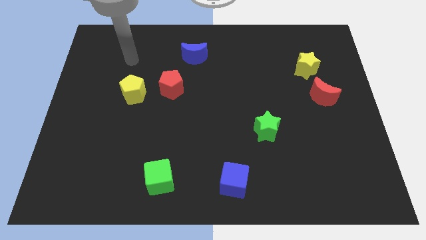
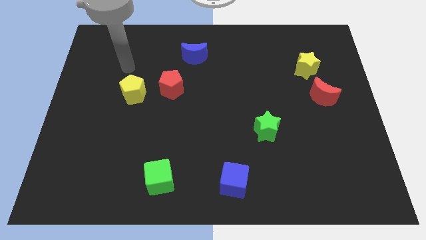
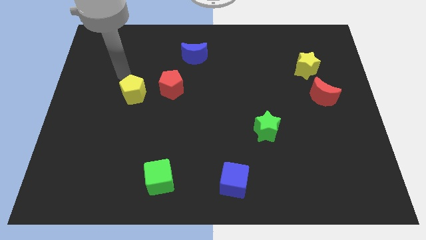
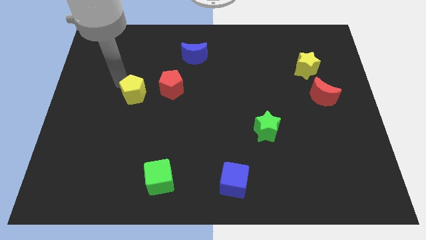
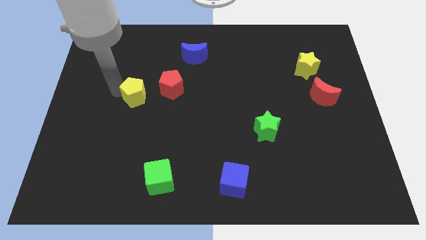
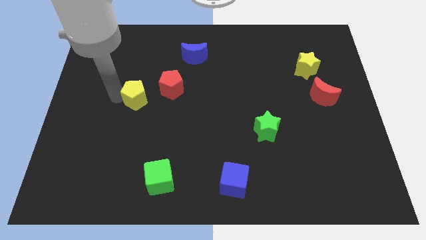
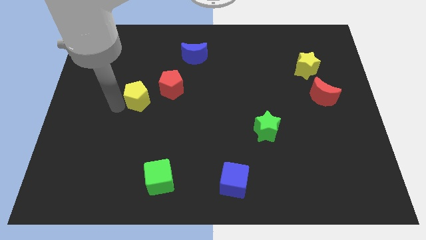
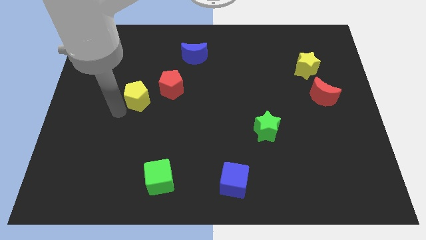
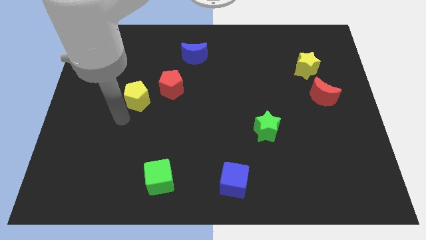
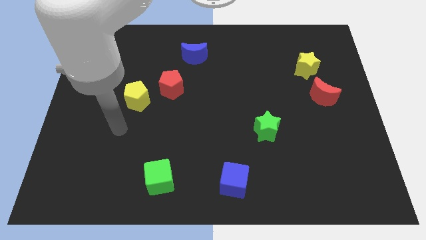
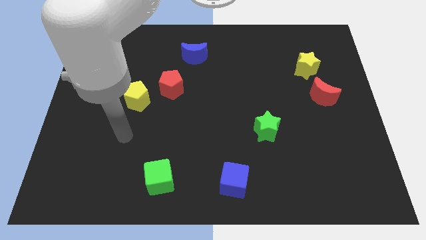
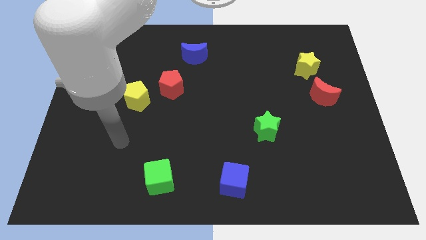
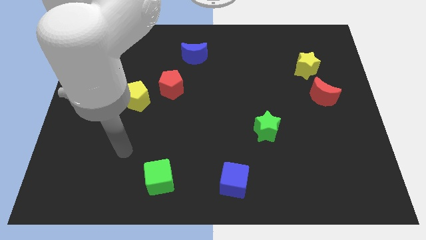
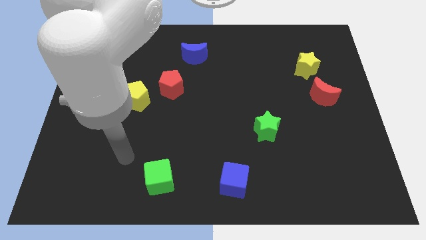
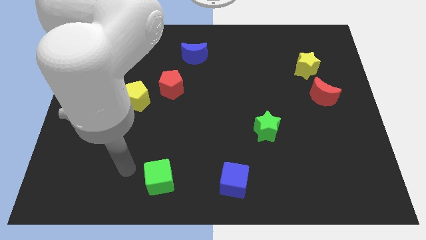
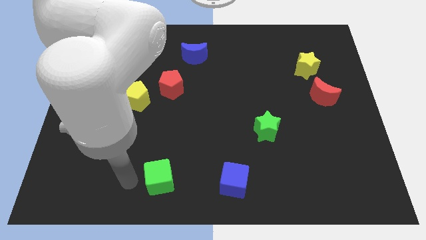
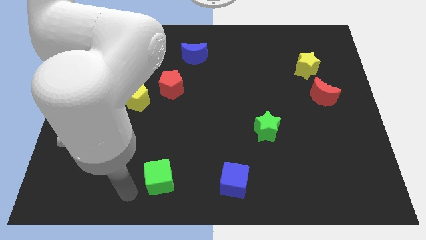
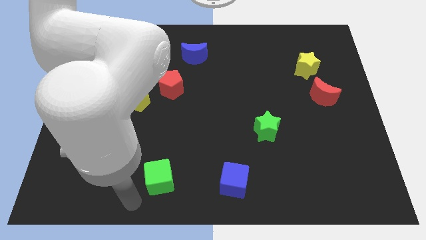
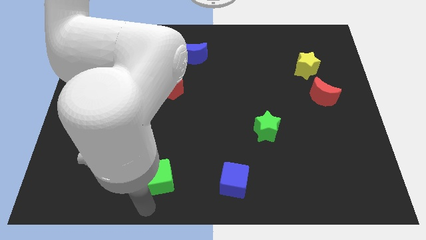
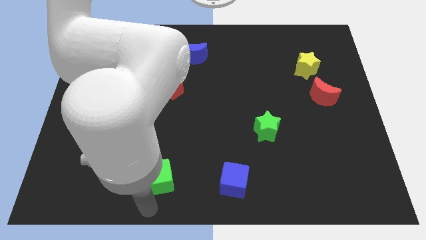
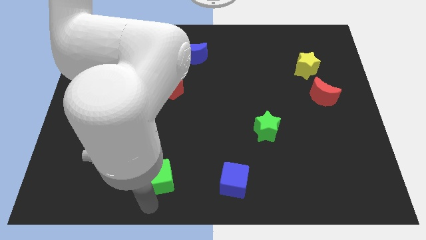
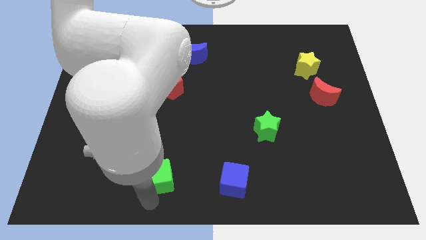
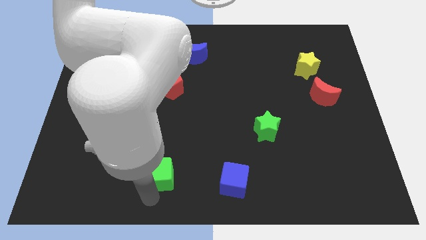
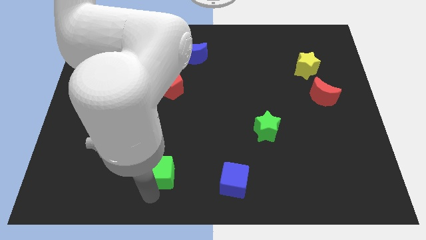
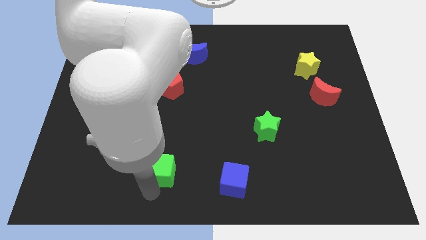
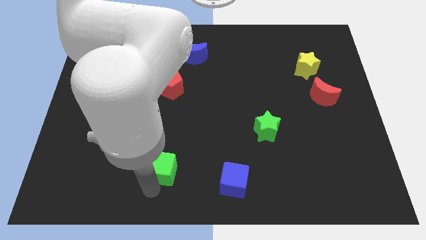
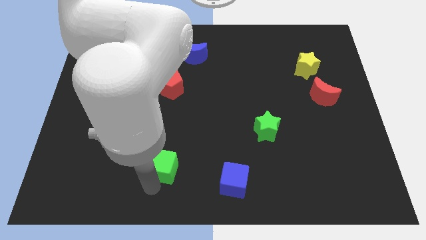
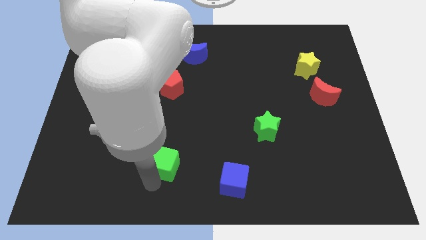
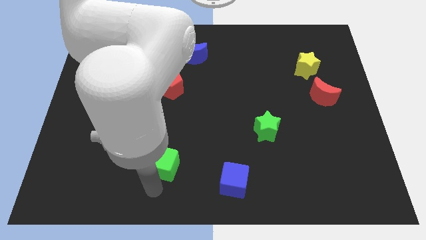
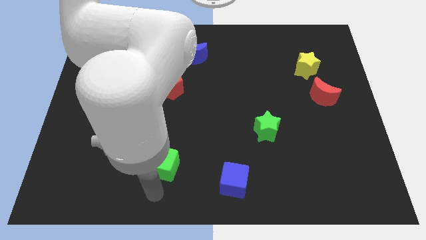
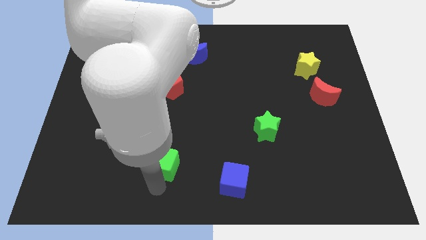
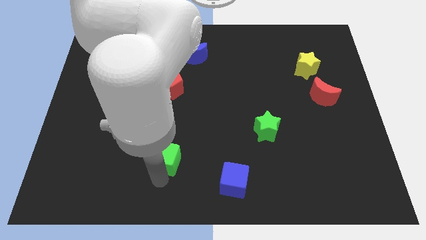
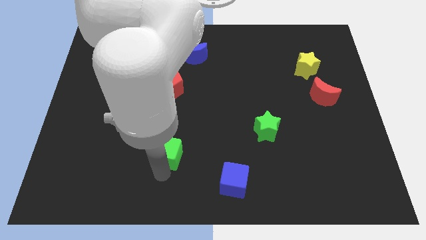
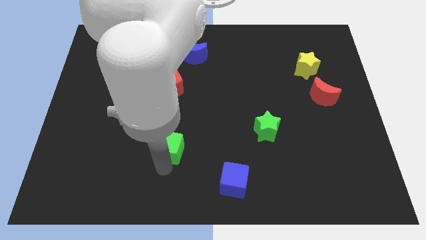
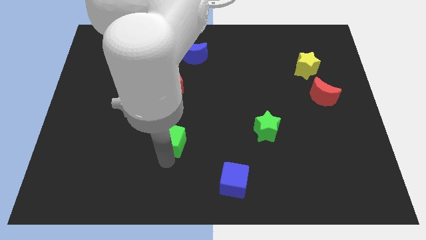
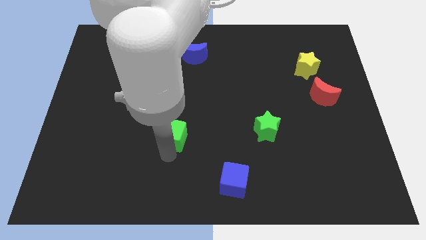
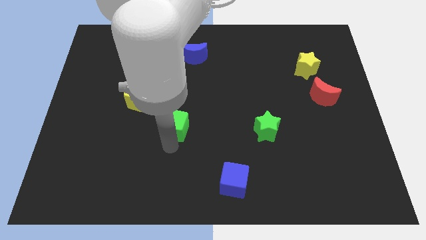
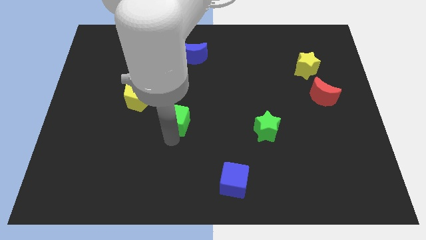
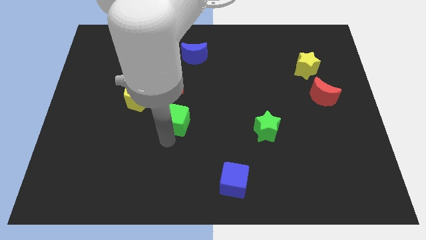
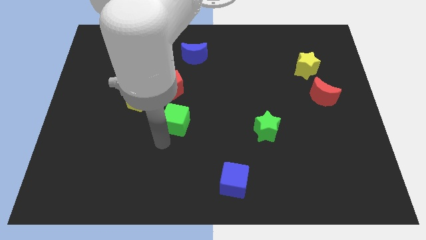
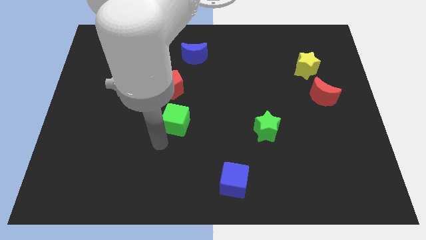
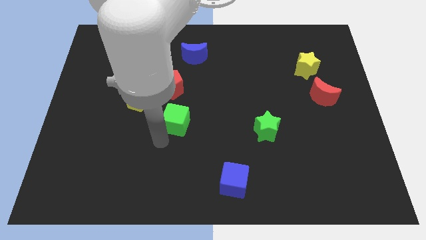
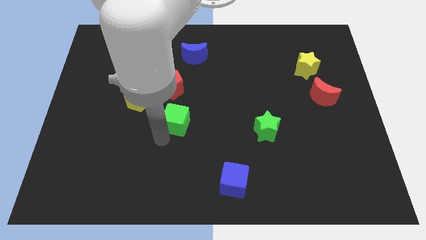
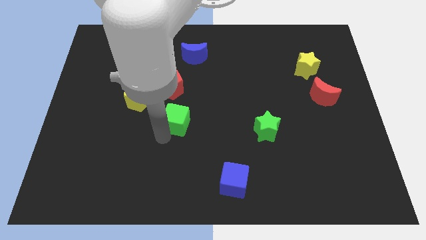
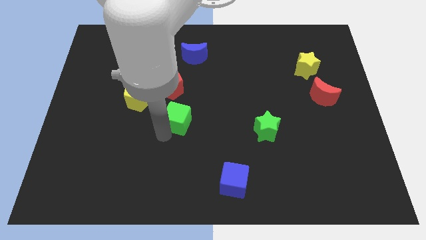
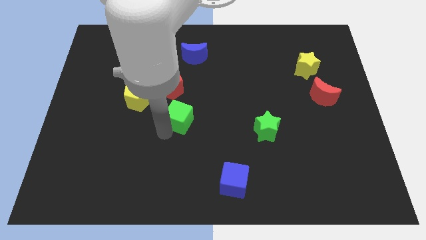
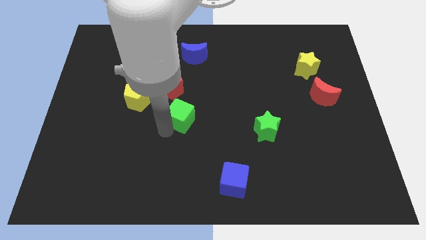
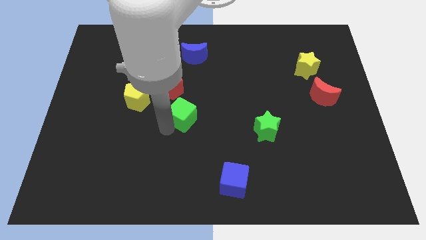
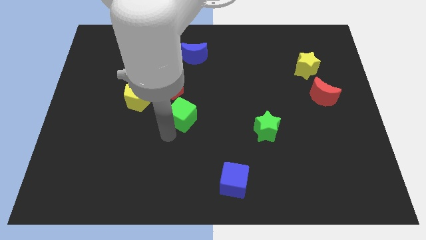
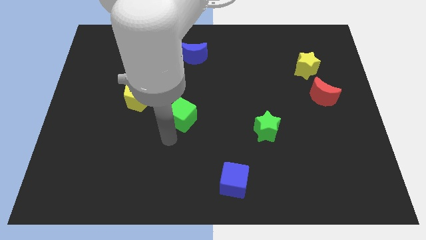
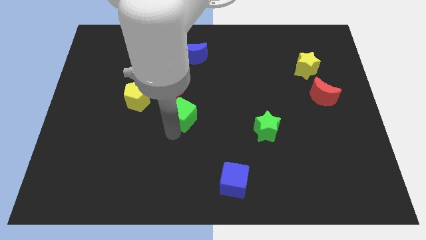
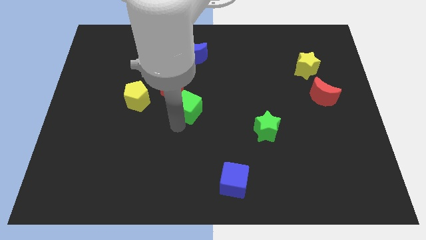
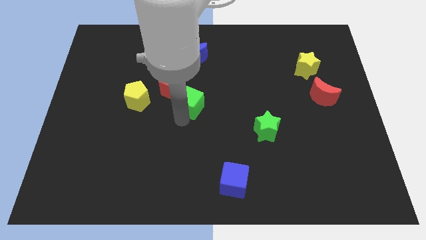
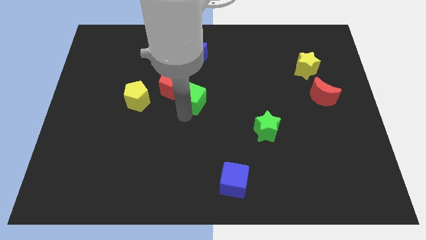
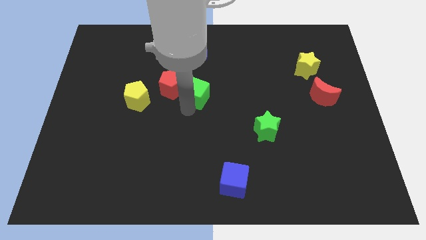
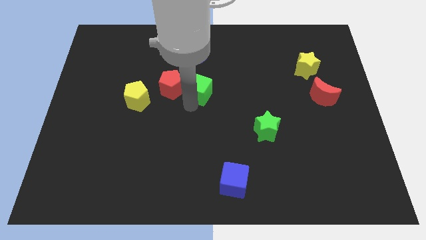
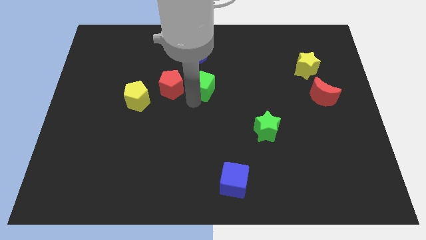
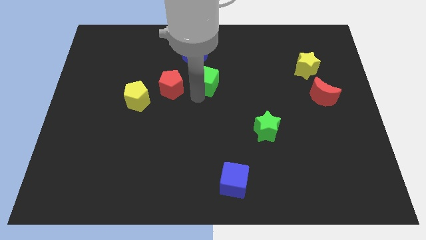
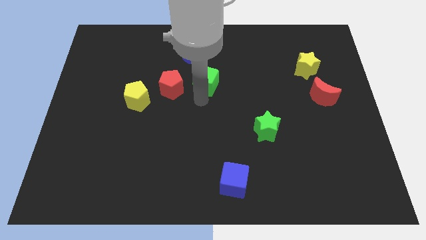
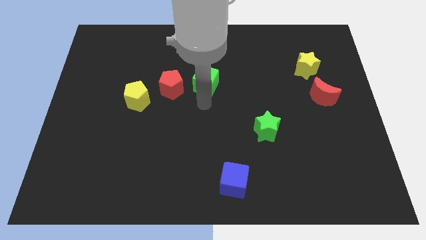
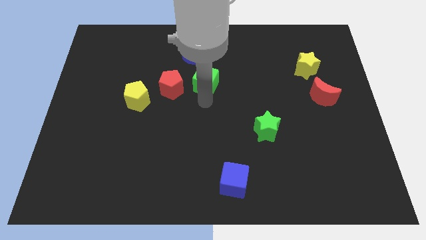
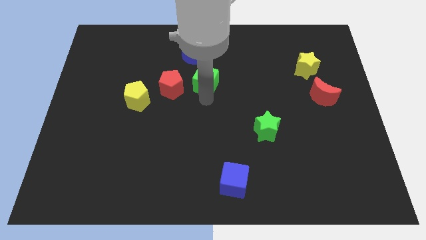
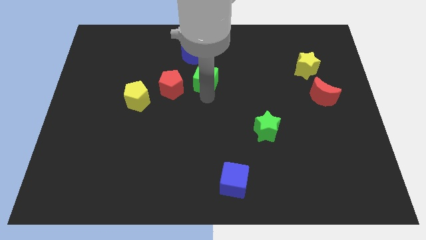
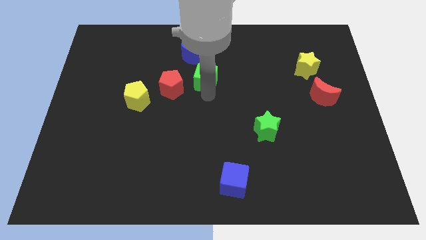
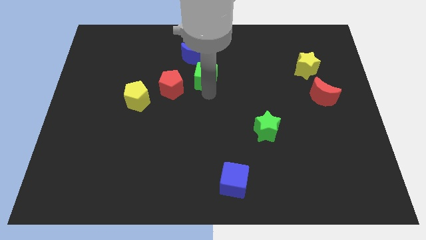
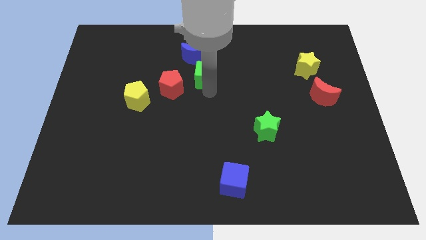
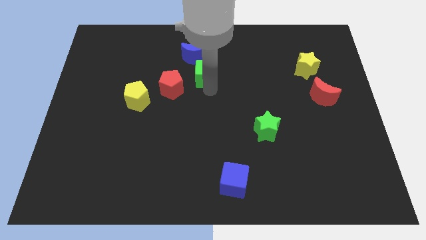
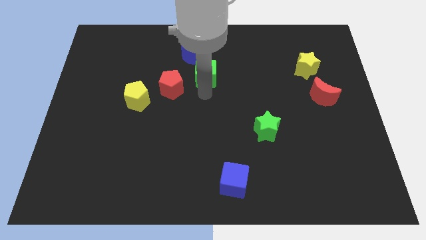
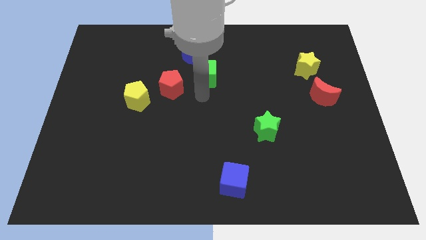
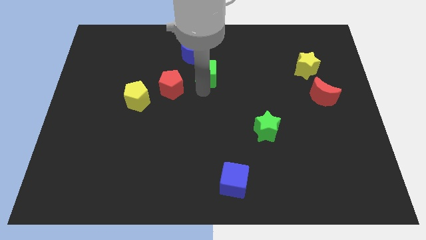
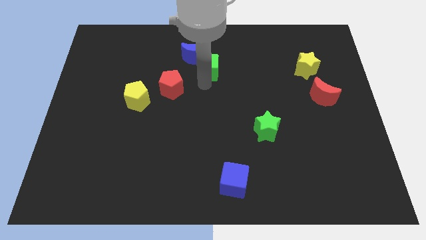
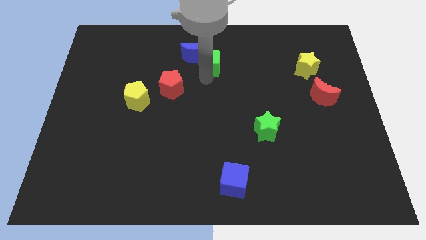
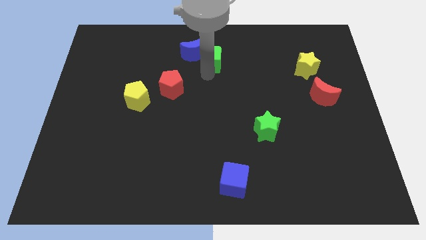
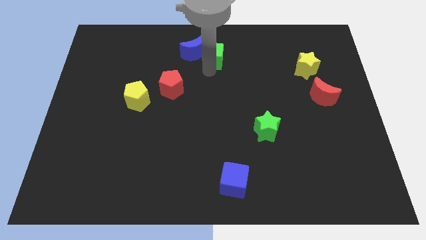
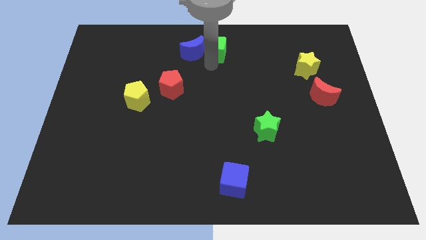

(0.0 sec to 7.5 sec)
put the green cube to the top side
